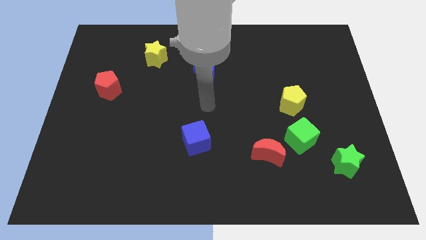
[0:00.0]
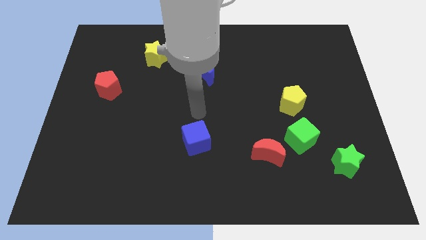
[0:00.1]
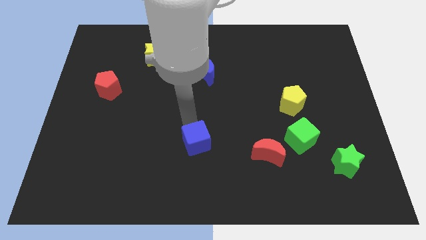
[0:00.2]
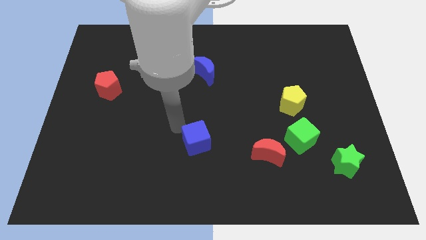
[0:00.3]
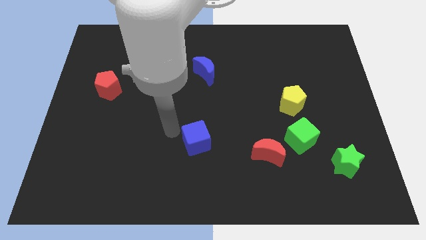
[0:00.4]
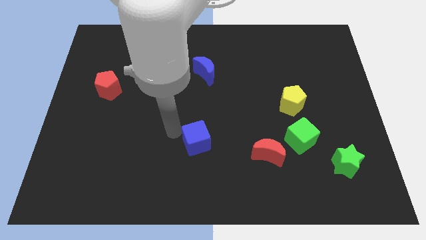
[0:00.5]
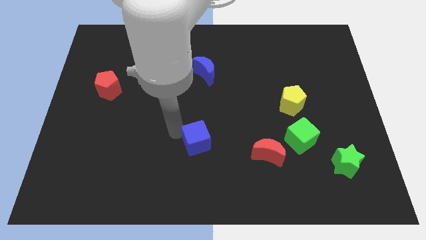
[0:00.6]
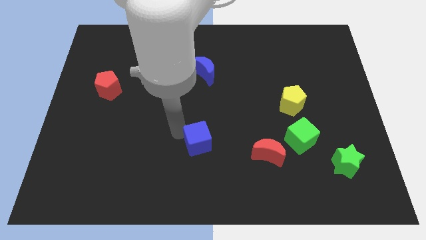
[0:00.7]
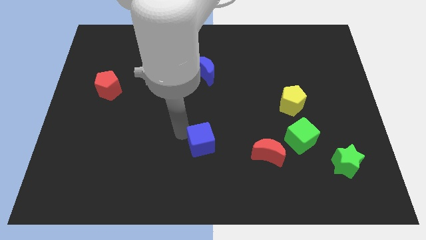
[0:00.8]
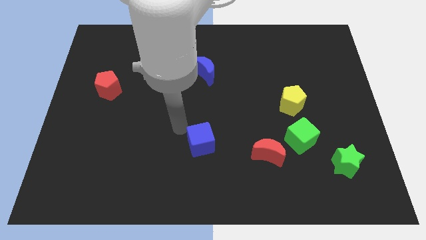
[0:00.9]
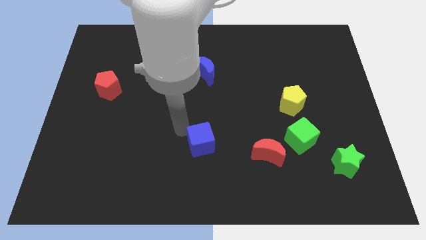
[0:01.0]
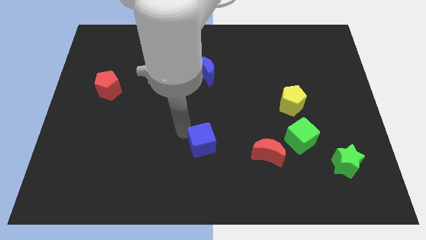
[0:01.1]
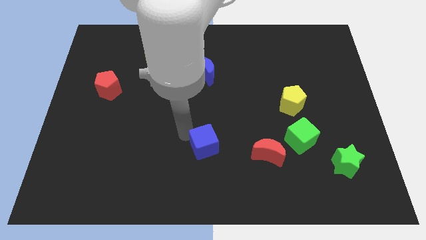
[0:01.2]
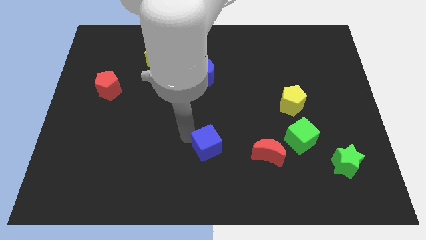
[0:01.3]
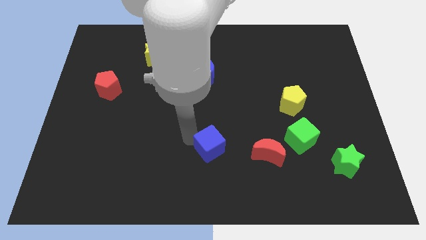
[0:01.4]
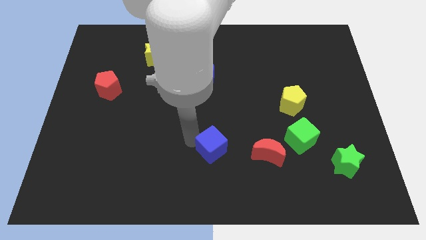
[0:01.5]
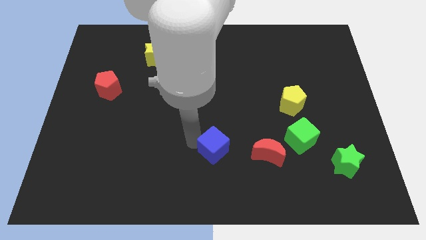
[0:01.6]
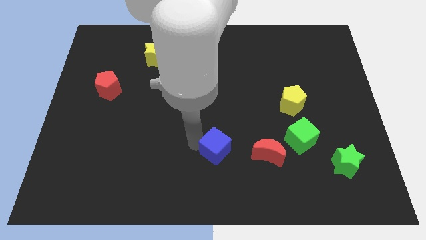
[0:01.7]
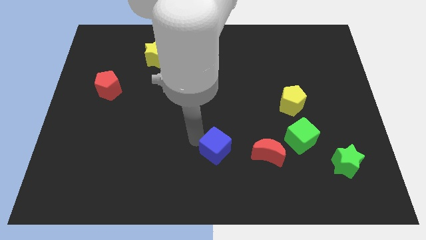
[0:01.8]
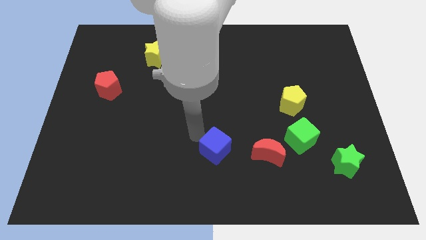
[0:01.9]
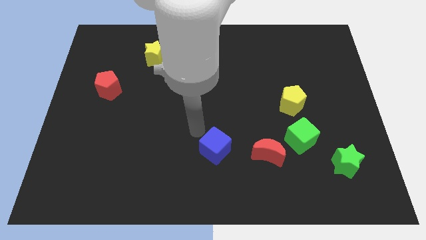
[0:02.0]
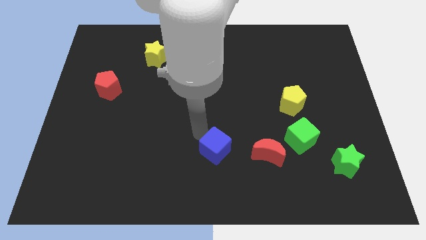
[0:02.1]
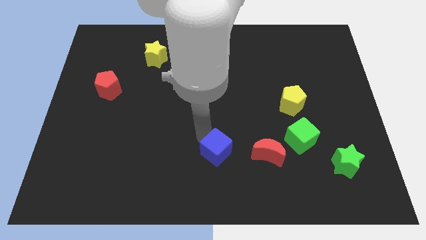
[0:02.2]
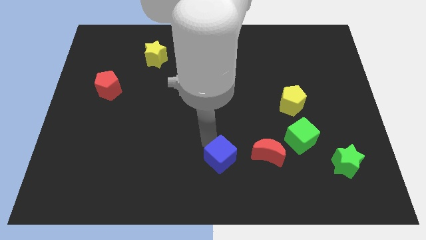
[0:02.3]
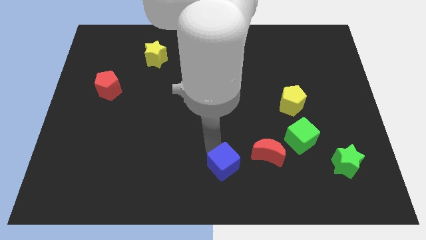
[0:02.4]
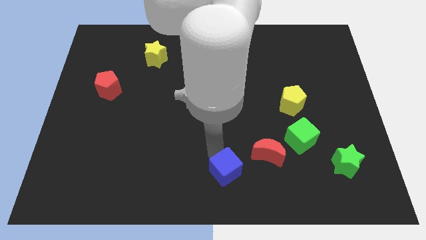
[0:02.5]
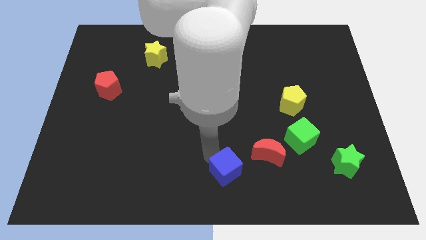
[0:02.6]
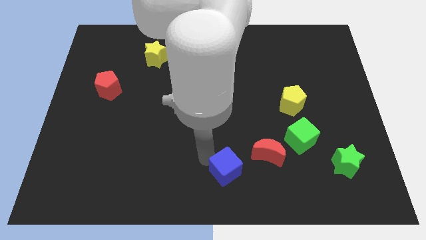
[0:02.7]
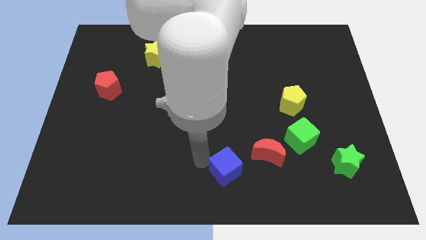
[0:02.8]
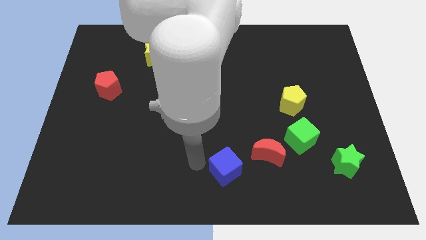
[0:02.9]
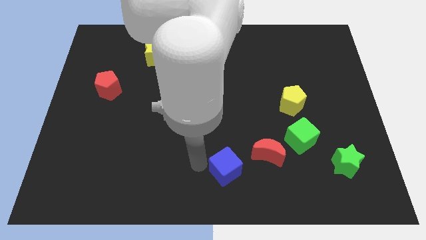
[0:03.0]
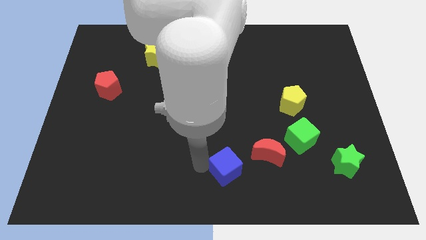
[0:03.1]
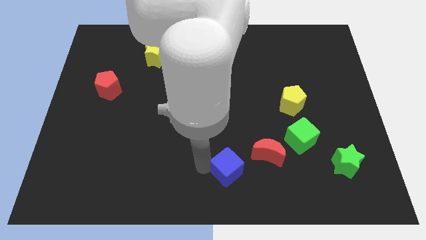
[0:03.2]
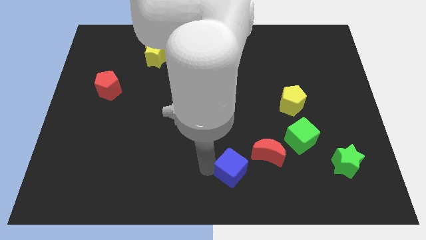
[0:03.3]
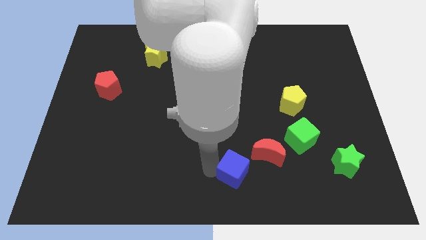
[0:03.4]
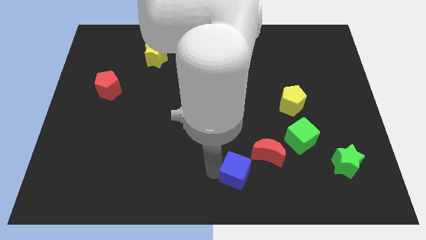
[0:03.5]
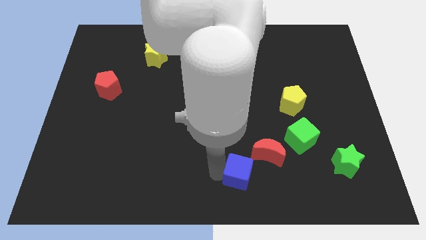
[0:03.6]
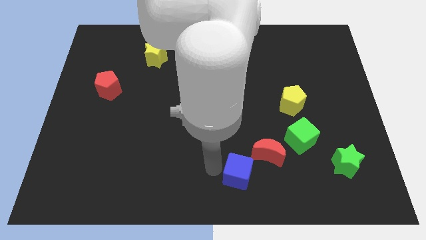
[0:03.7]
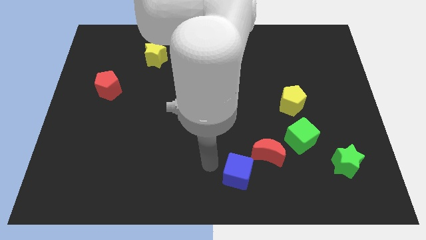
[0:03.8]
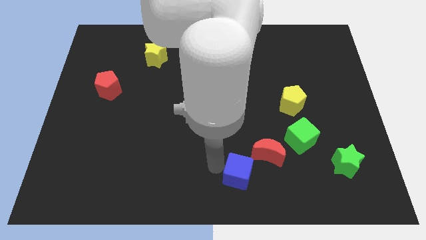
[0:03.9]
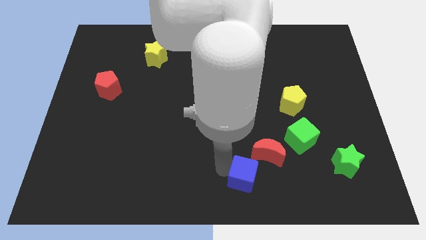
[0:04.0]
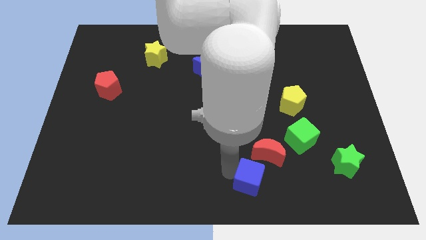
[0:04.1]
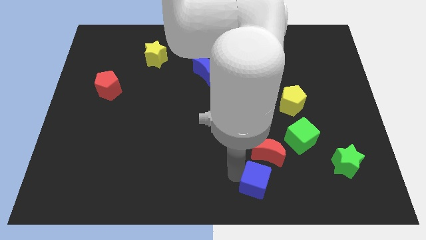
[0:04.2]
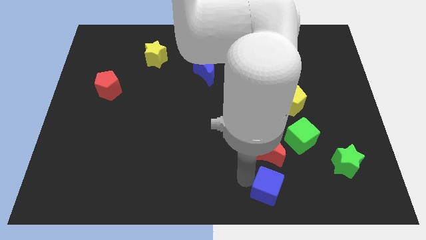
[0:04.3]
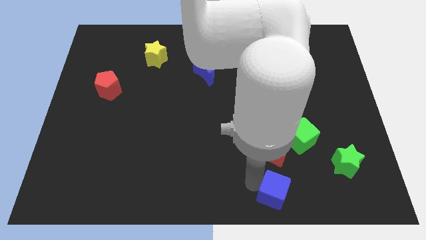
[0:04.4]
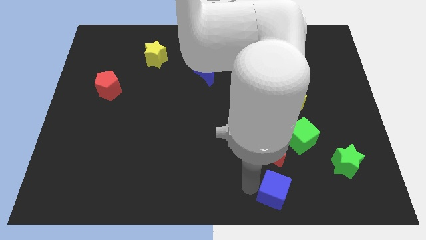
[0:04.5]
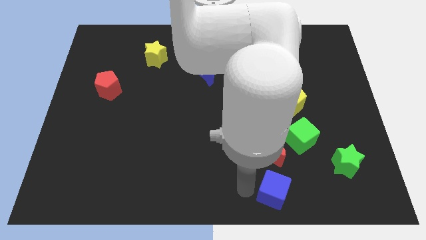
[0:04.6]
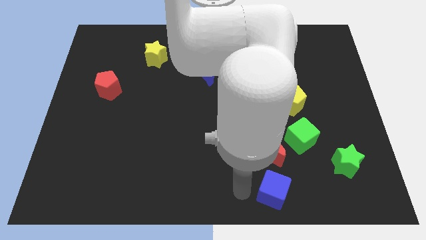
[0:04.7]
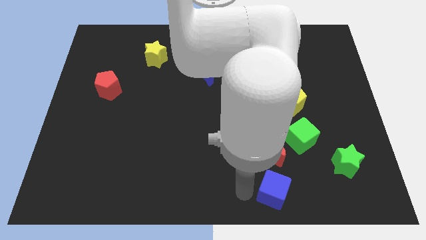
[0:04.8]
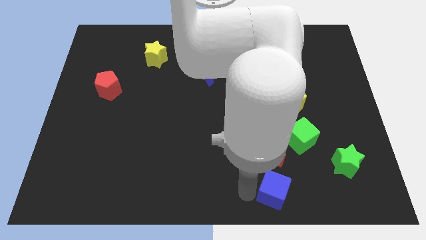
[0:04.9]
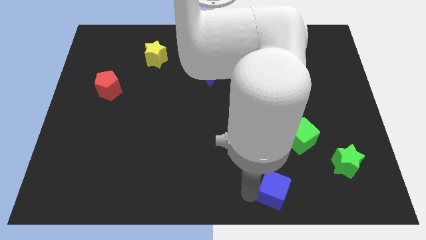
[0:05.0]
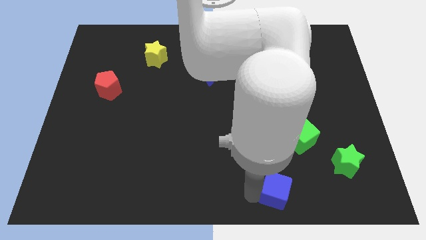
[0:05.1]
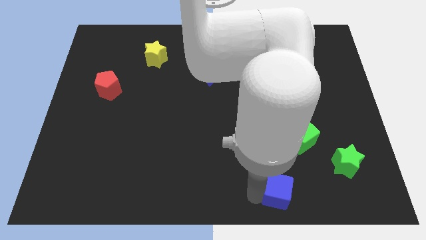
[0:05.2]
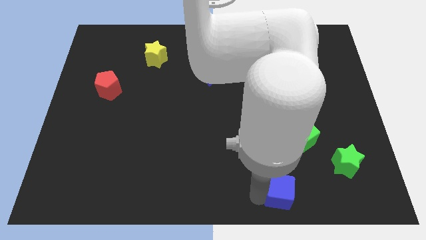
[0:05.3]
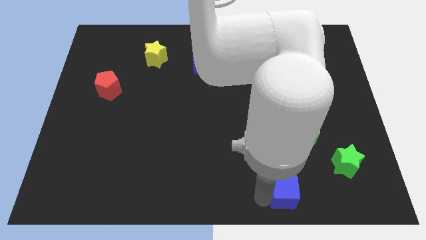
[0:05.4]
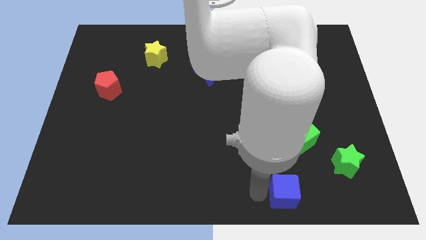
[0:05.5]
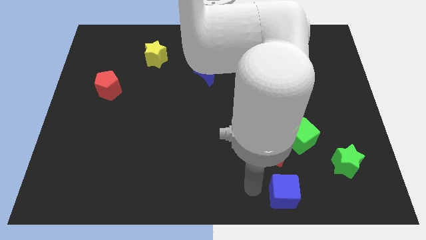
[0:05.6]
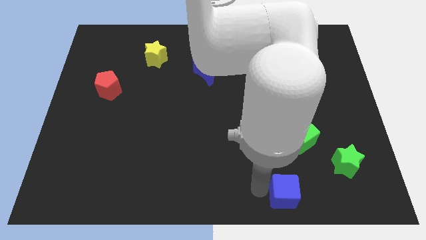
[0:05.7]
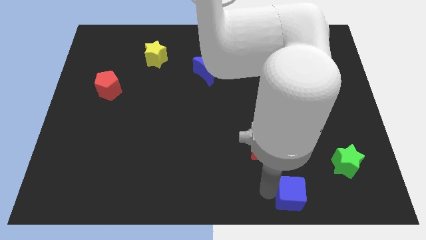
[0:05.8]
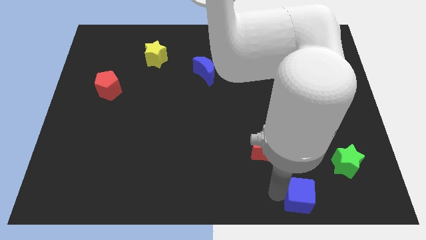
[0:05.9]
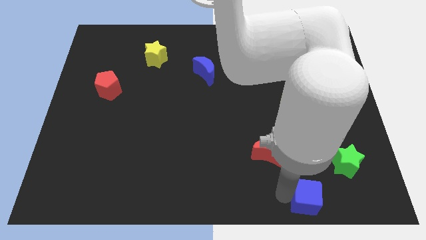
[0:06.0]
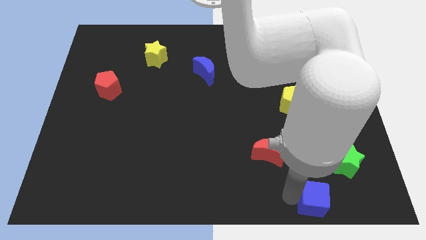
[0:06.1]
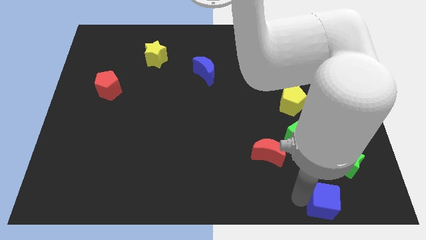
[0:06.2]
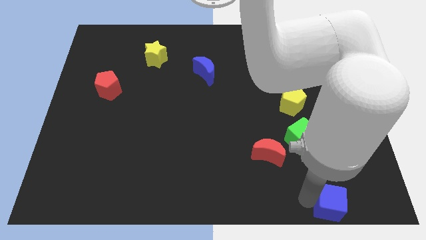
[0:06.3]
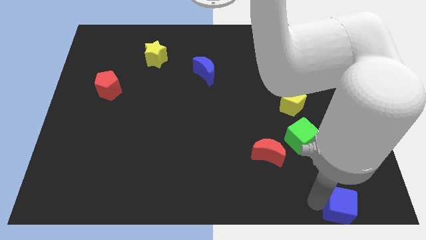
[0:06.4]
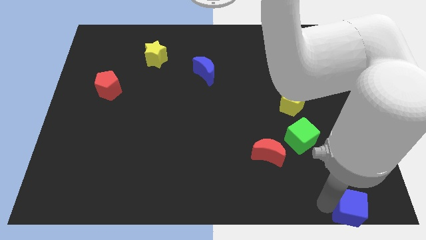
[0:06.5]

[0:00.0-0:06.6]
move the blue cube to the bottom right of the board

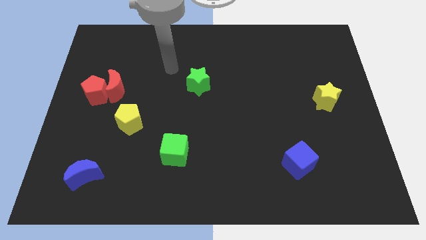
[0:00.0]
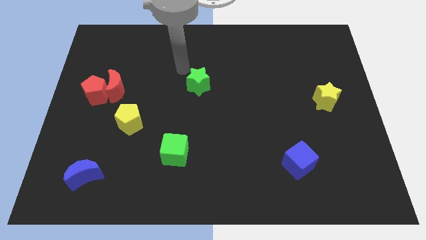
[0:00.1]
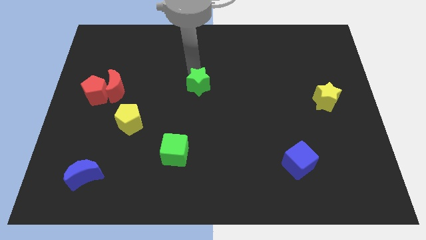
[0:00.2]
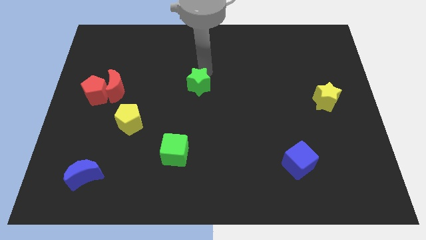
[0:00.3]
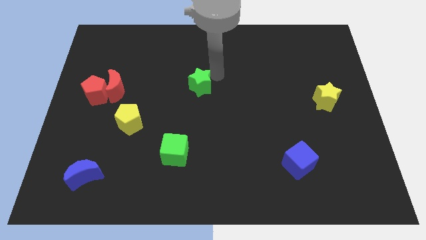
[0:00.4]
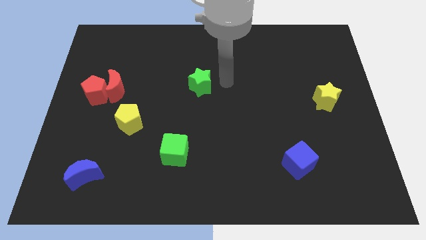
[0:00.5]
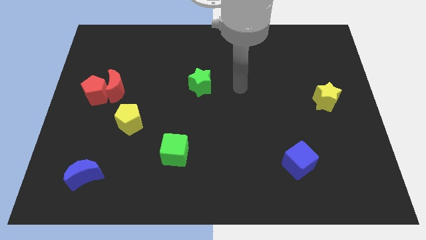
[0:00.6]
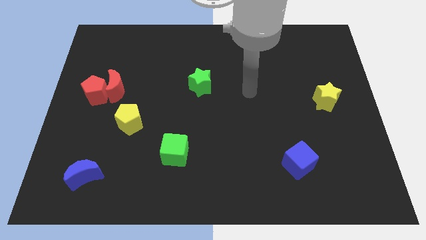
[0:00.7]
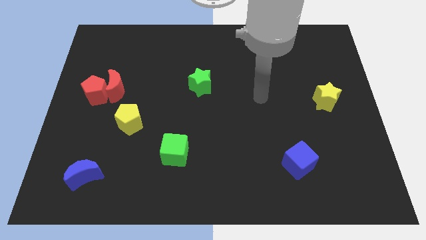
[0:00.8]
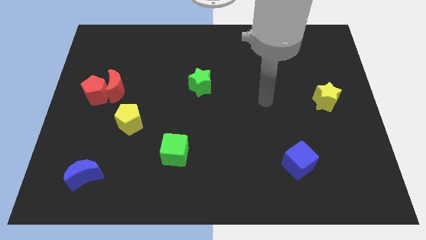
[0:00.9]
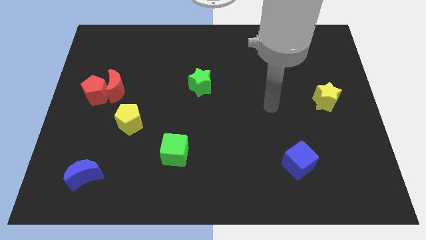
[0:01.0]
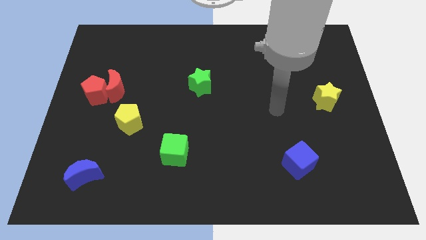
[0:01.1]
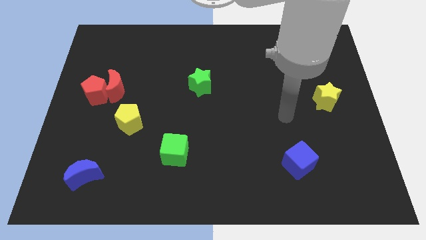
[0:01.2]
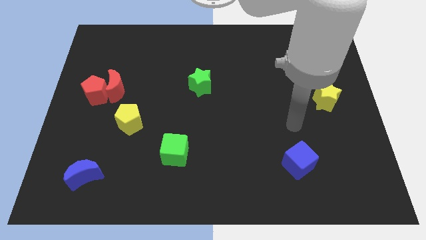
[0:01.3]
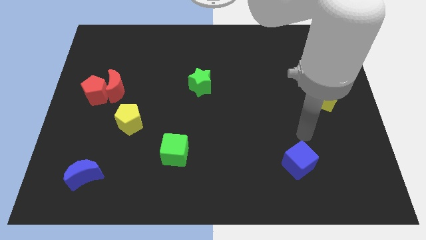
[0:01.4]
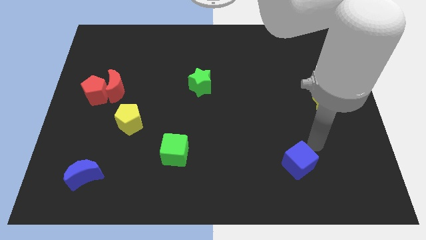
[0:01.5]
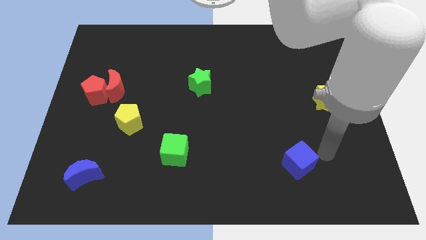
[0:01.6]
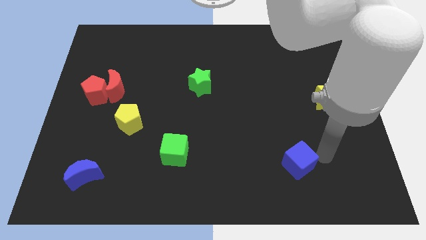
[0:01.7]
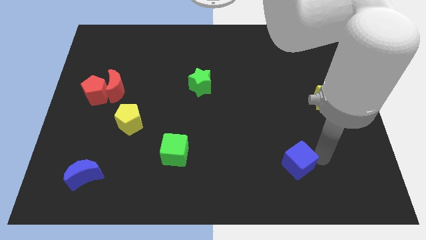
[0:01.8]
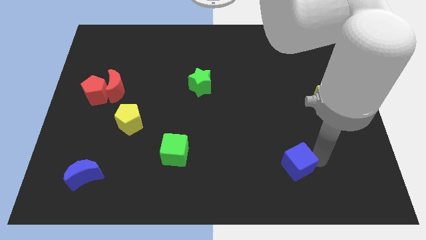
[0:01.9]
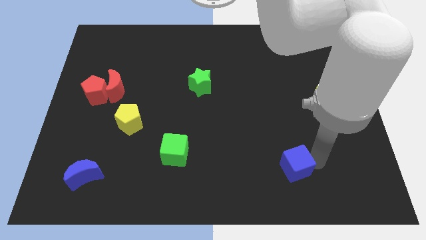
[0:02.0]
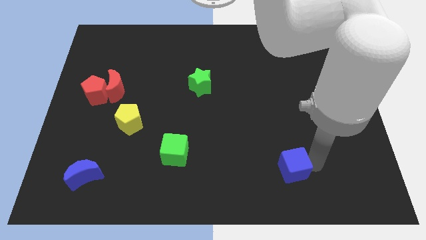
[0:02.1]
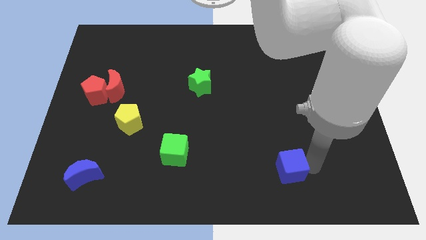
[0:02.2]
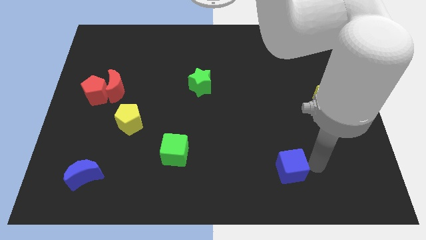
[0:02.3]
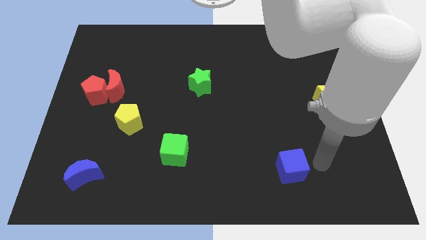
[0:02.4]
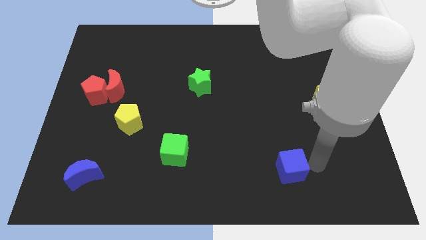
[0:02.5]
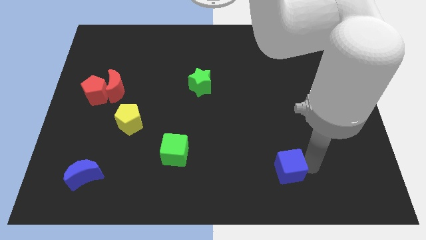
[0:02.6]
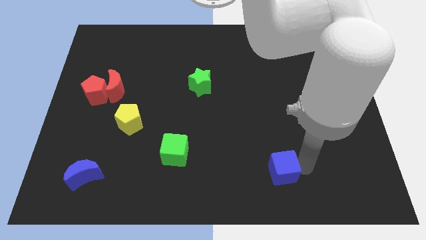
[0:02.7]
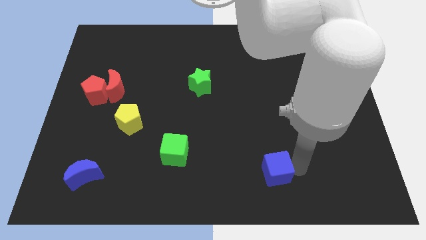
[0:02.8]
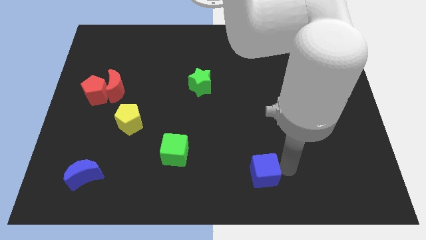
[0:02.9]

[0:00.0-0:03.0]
push the blue cube to the bottom side
